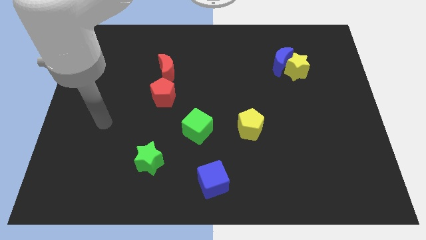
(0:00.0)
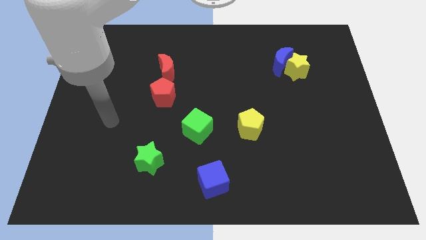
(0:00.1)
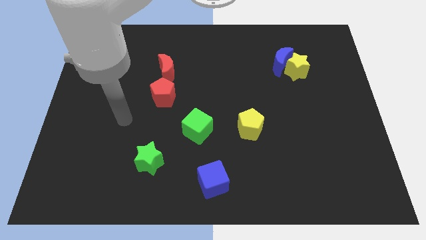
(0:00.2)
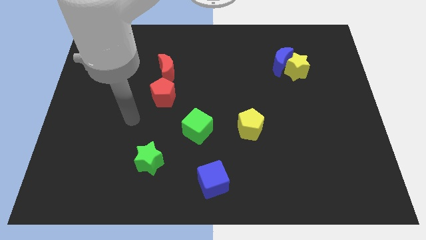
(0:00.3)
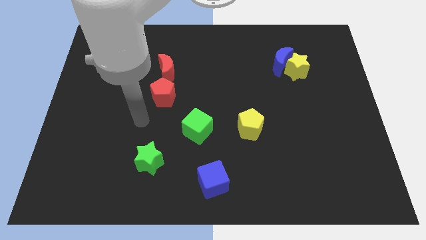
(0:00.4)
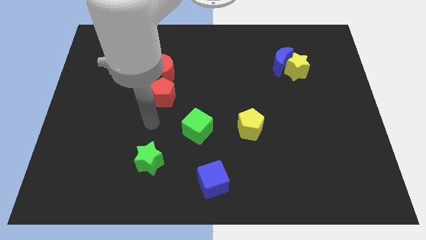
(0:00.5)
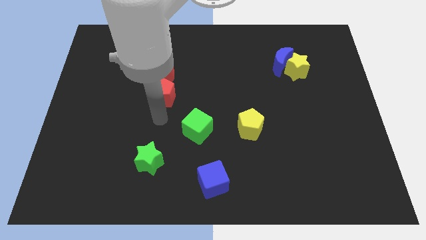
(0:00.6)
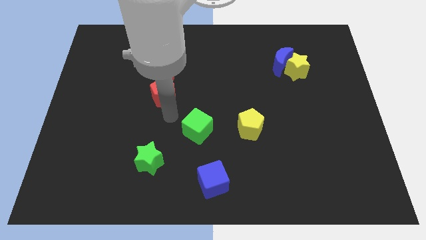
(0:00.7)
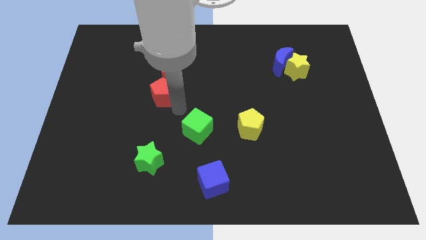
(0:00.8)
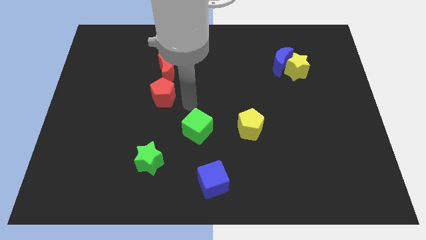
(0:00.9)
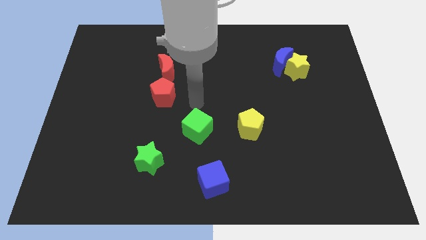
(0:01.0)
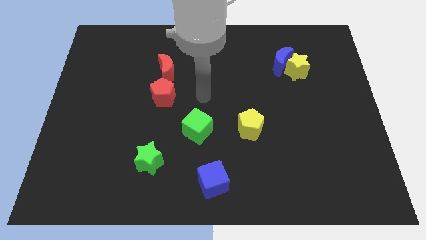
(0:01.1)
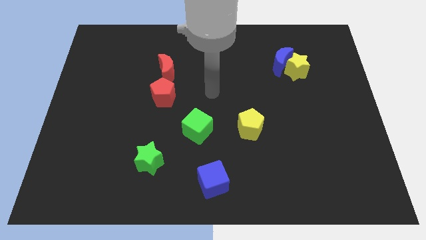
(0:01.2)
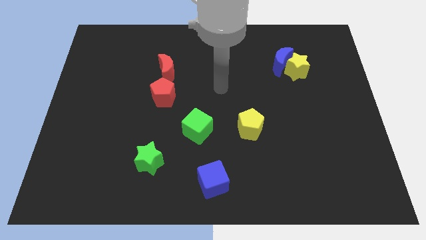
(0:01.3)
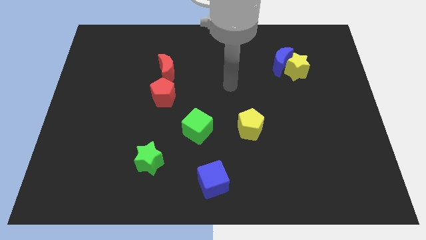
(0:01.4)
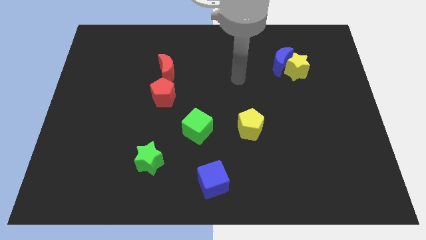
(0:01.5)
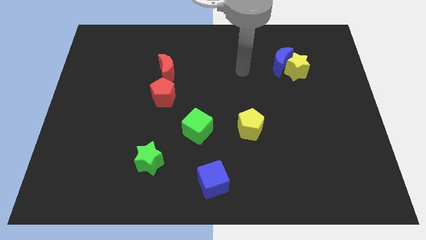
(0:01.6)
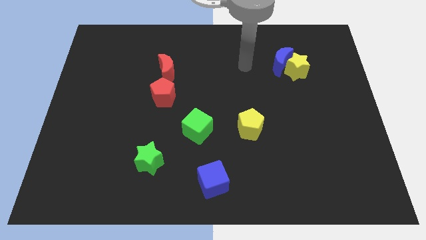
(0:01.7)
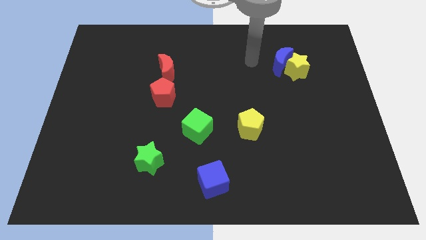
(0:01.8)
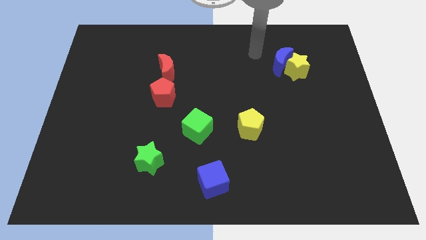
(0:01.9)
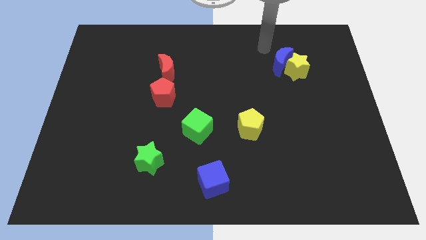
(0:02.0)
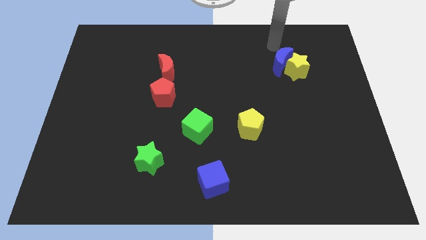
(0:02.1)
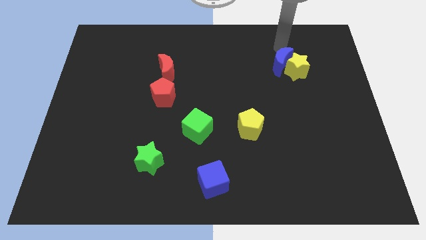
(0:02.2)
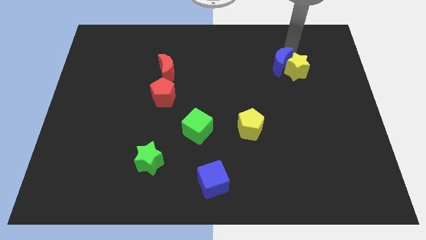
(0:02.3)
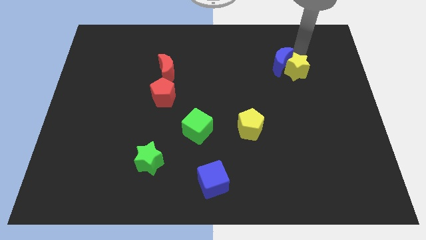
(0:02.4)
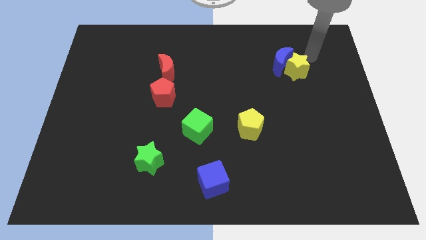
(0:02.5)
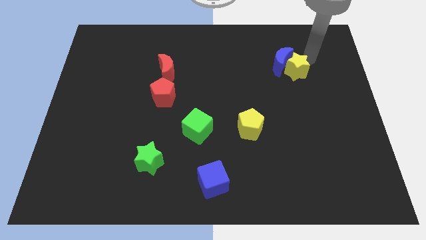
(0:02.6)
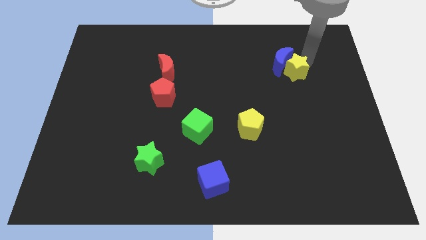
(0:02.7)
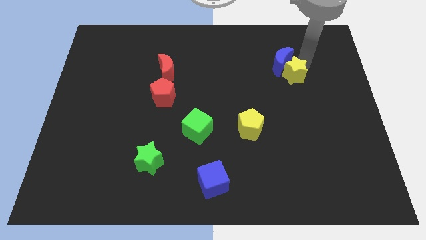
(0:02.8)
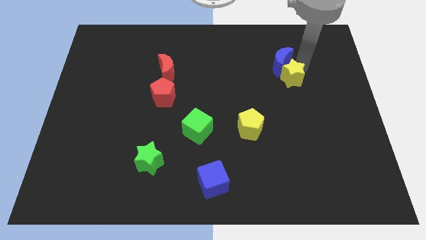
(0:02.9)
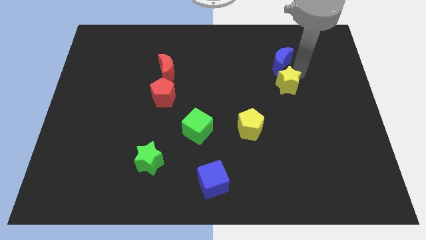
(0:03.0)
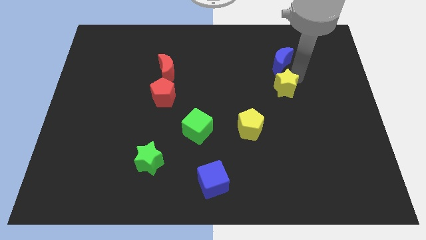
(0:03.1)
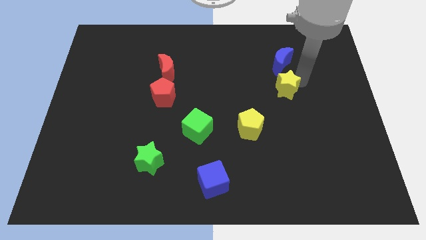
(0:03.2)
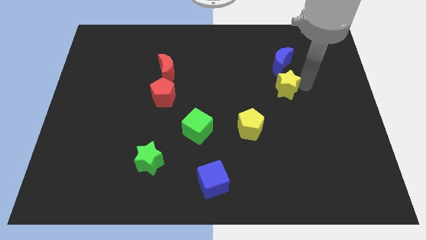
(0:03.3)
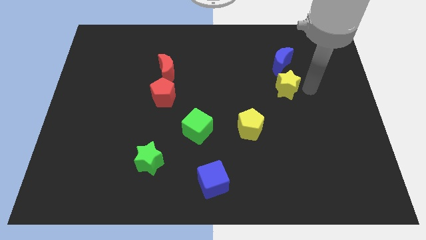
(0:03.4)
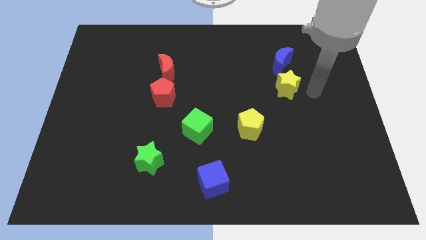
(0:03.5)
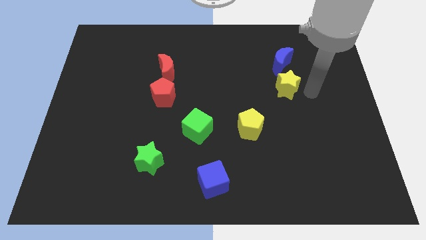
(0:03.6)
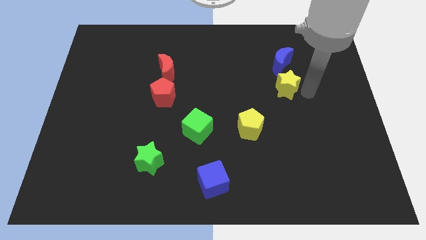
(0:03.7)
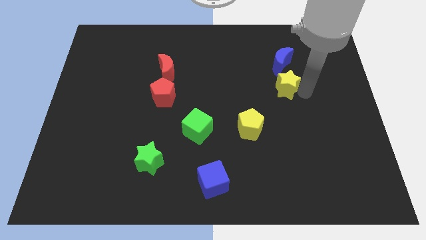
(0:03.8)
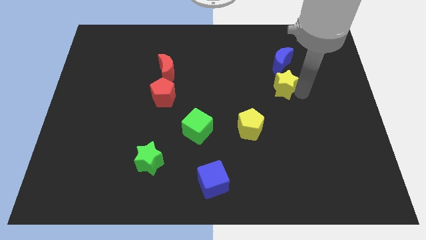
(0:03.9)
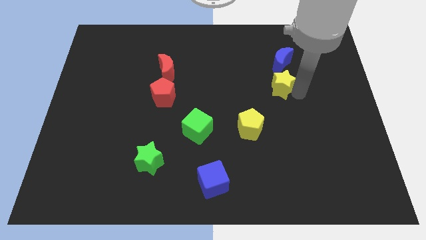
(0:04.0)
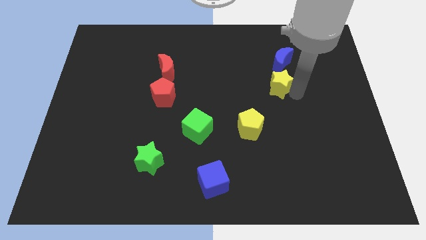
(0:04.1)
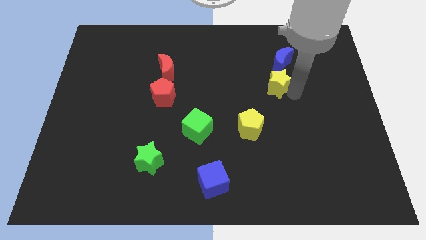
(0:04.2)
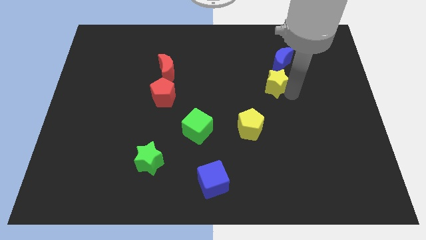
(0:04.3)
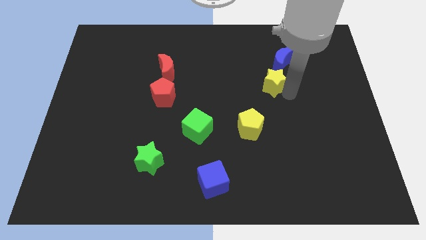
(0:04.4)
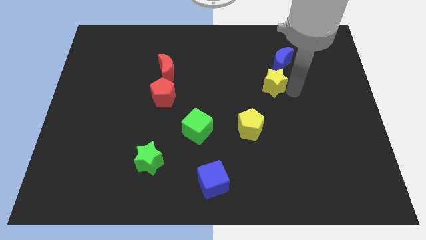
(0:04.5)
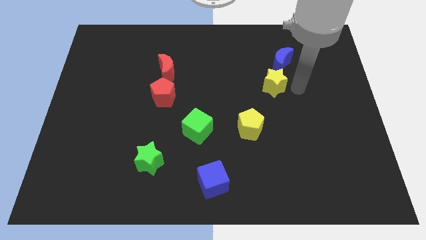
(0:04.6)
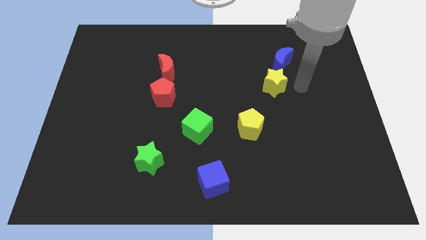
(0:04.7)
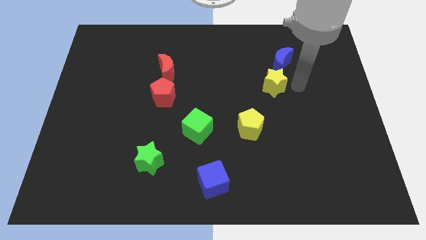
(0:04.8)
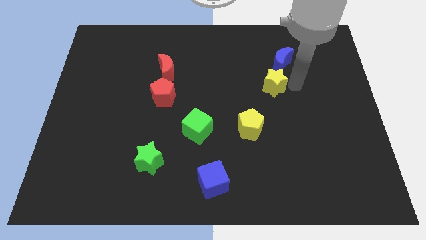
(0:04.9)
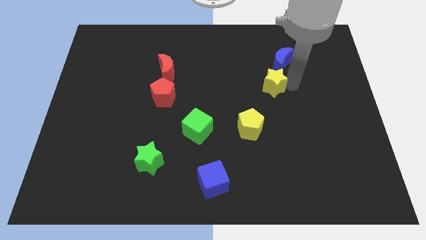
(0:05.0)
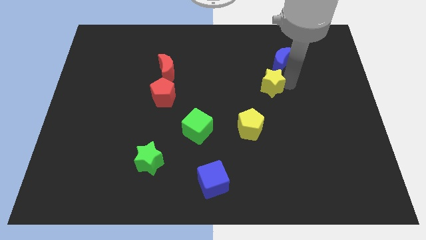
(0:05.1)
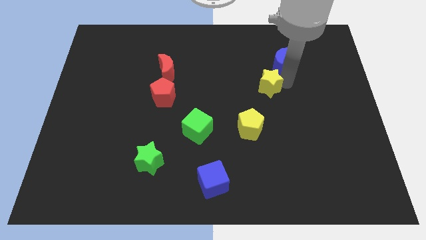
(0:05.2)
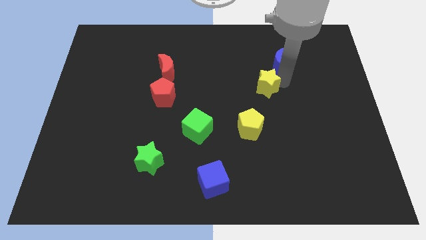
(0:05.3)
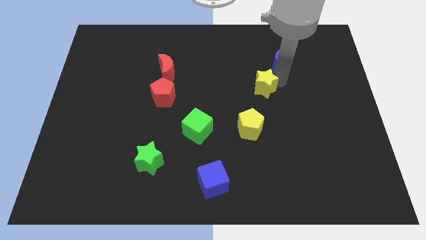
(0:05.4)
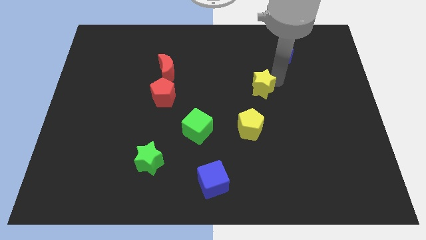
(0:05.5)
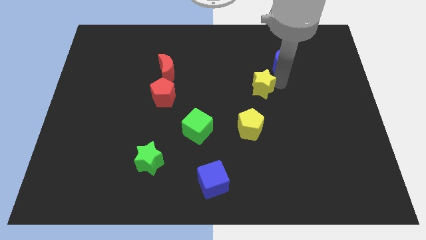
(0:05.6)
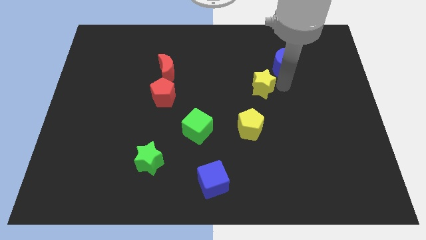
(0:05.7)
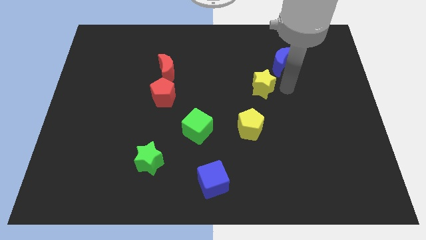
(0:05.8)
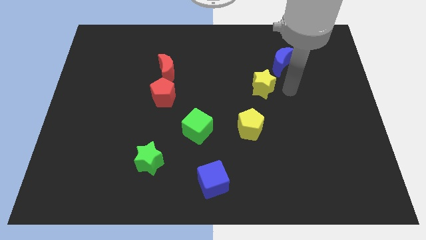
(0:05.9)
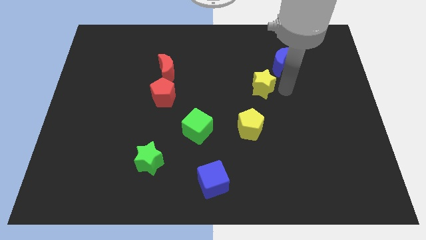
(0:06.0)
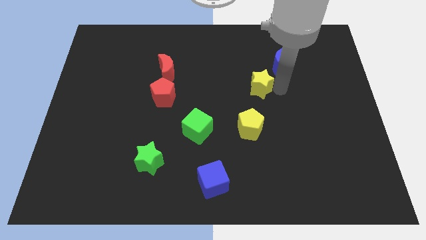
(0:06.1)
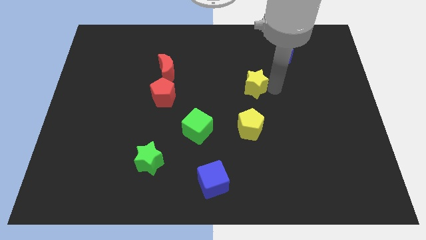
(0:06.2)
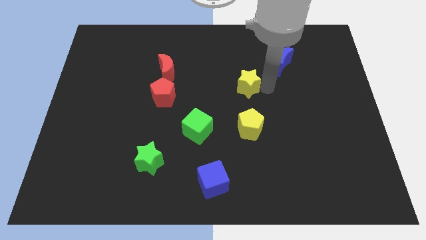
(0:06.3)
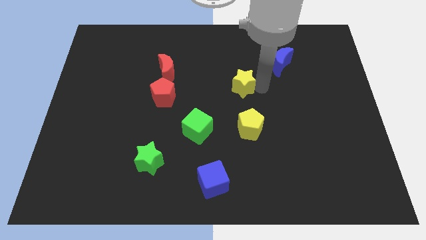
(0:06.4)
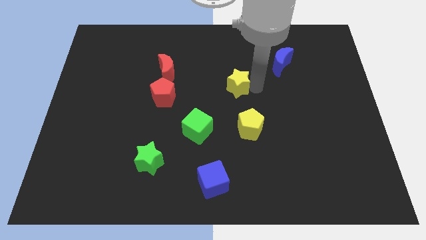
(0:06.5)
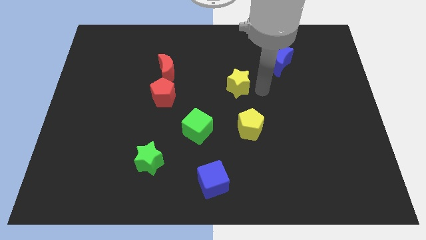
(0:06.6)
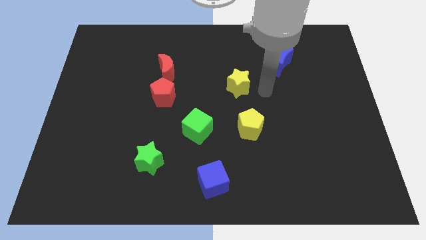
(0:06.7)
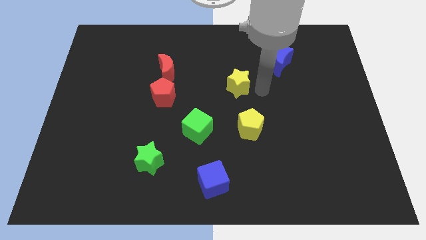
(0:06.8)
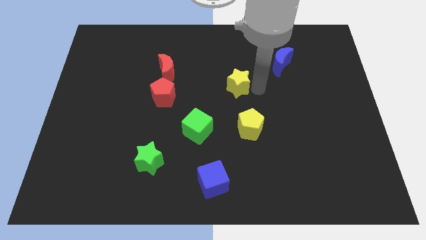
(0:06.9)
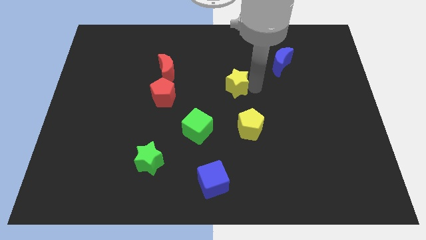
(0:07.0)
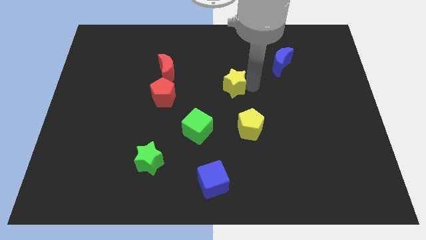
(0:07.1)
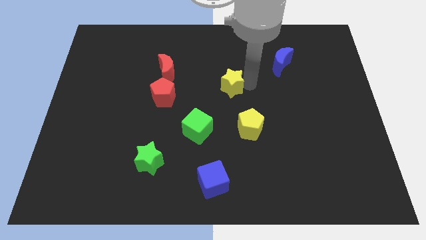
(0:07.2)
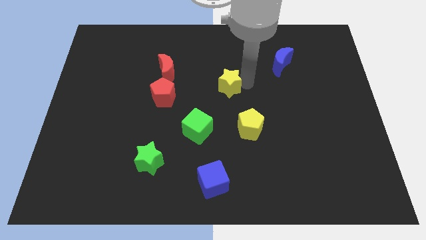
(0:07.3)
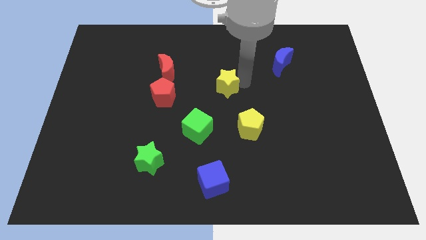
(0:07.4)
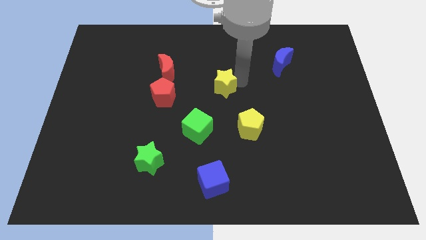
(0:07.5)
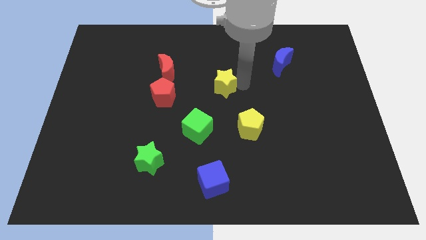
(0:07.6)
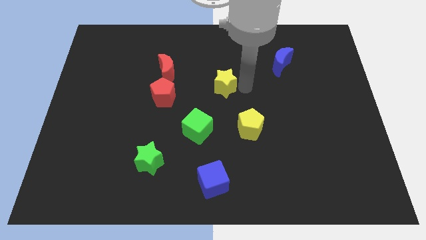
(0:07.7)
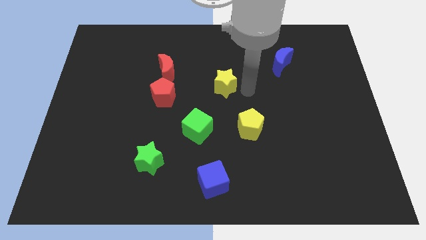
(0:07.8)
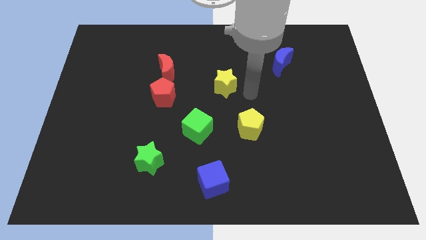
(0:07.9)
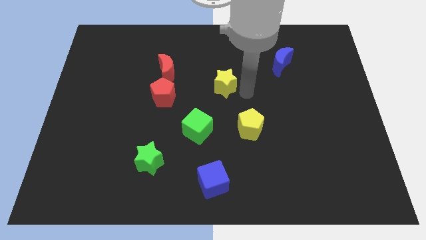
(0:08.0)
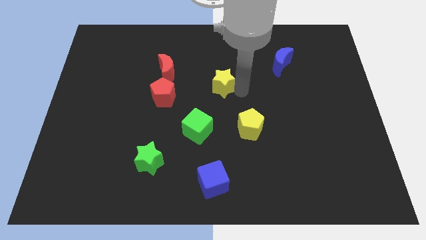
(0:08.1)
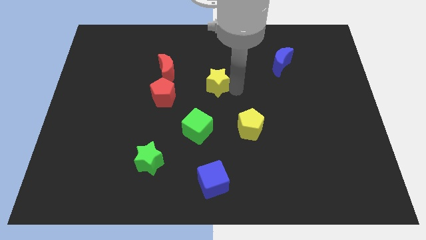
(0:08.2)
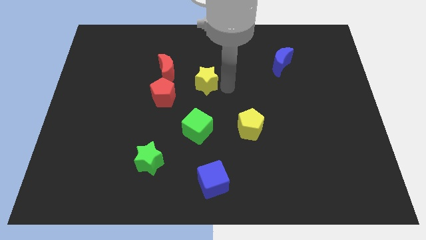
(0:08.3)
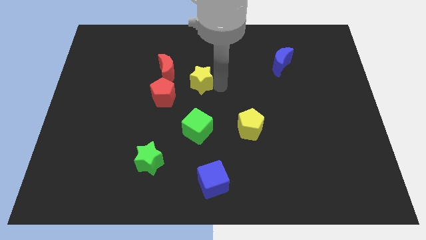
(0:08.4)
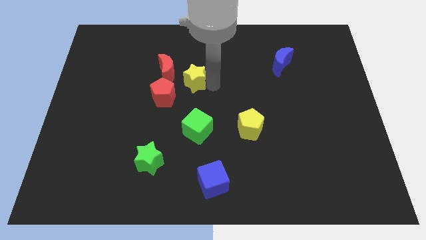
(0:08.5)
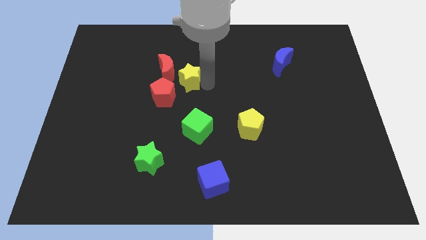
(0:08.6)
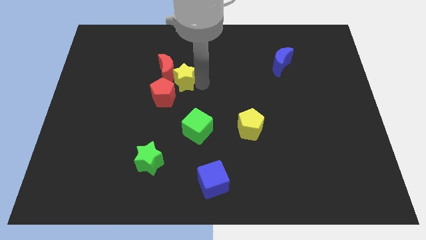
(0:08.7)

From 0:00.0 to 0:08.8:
slide the yellow star next to the red moon
